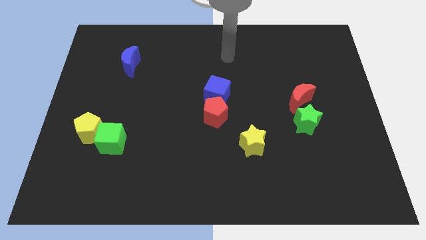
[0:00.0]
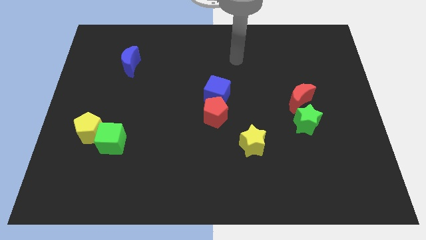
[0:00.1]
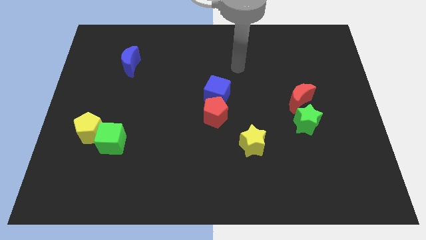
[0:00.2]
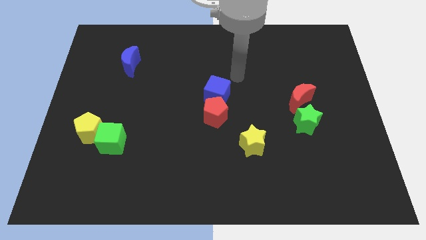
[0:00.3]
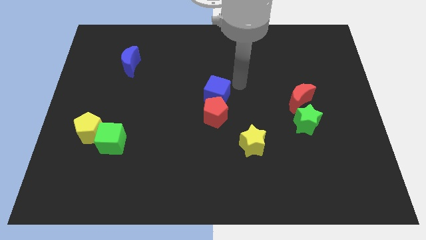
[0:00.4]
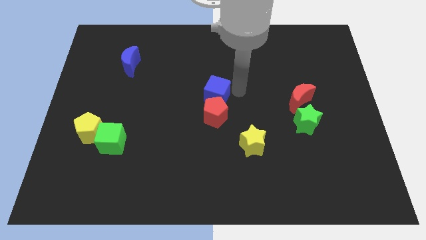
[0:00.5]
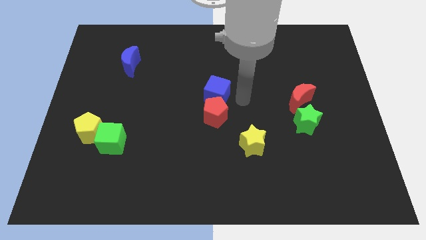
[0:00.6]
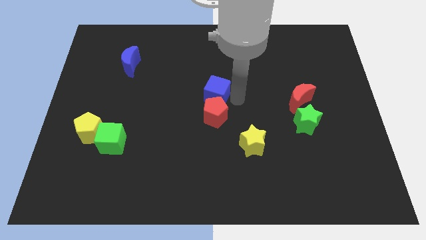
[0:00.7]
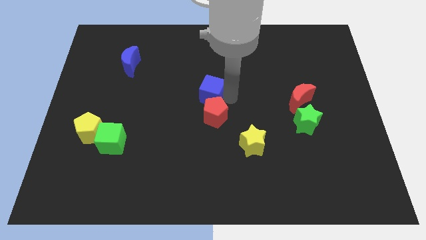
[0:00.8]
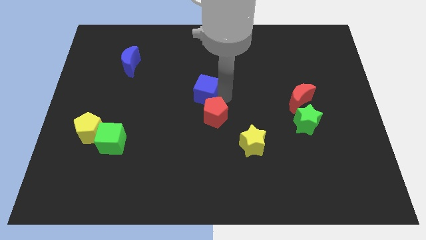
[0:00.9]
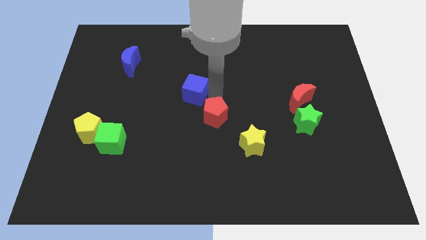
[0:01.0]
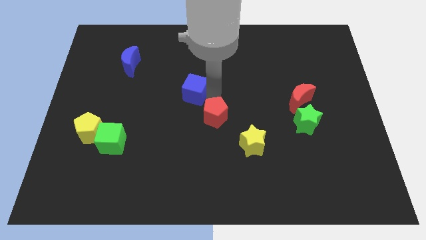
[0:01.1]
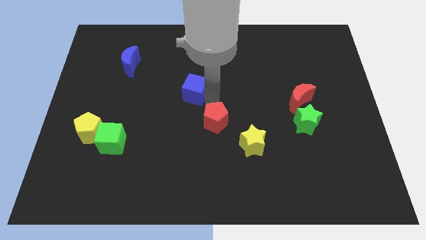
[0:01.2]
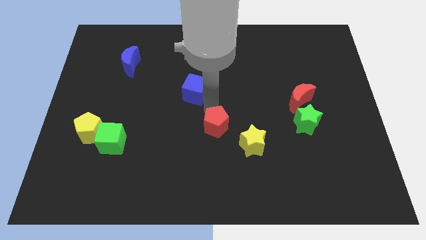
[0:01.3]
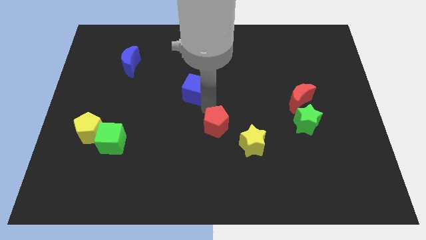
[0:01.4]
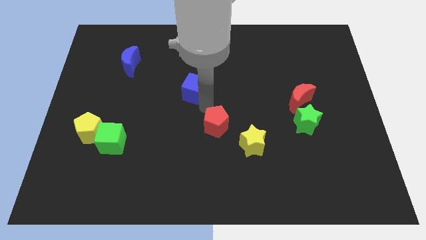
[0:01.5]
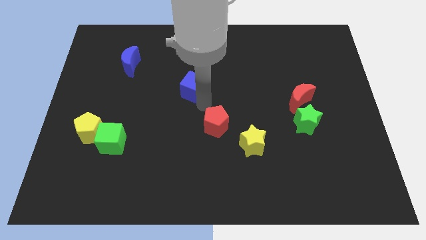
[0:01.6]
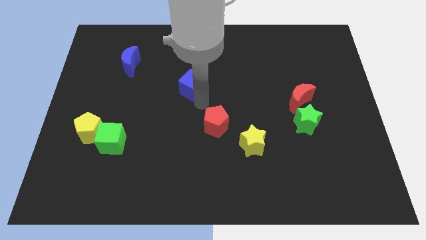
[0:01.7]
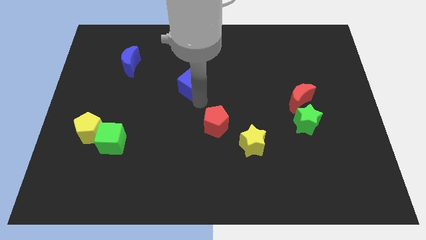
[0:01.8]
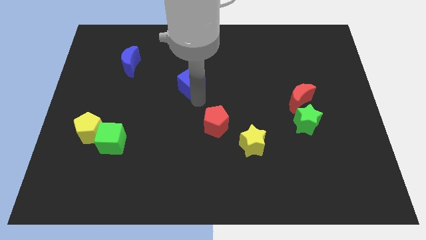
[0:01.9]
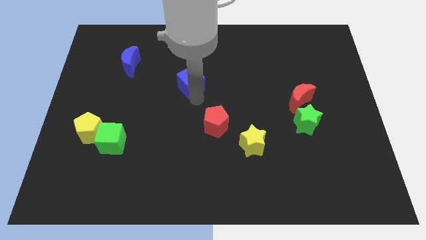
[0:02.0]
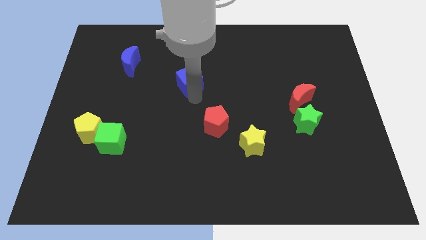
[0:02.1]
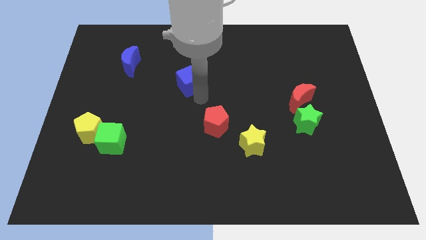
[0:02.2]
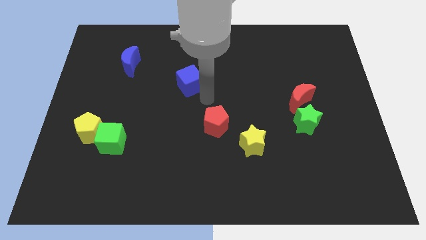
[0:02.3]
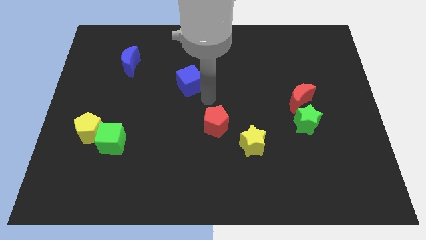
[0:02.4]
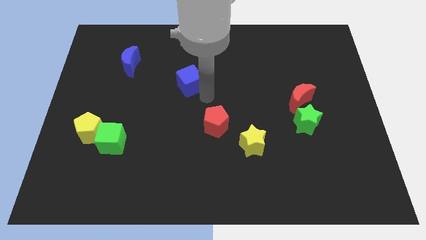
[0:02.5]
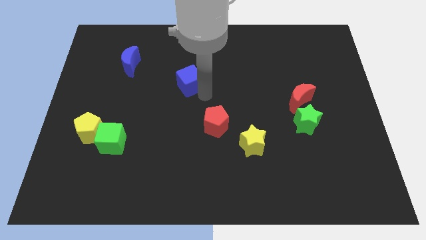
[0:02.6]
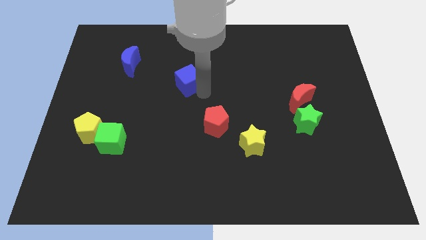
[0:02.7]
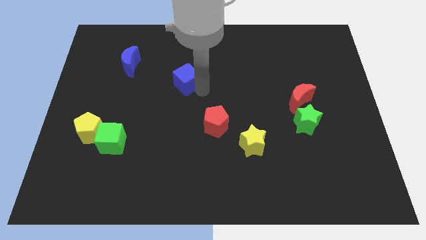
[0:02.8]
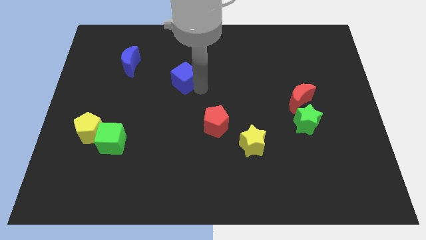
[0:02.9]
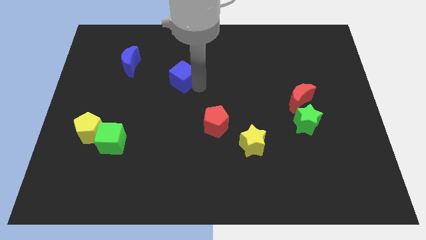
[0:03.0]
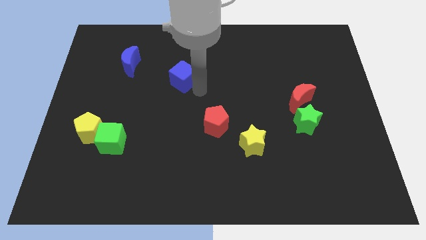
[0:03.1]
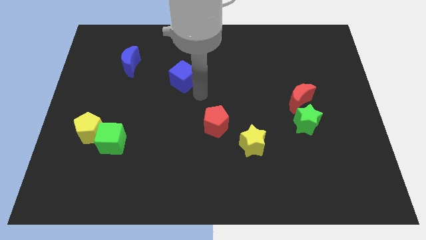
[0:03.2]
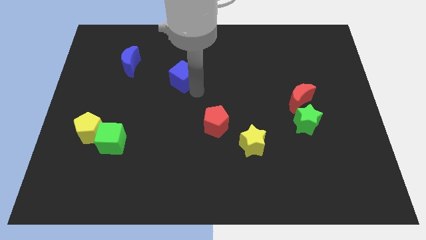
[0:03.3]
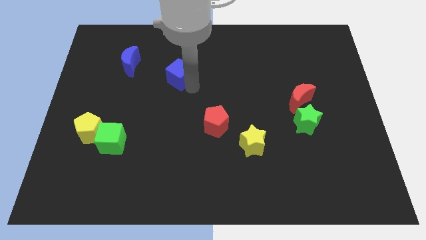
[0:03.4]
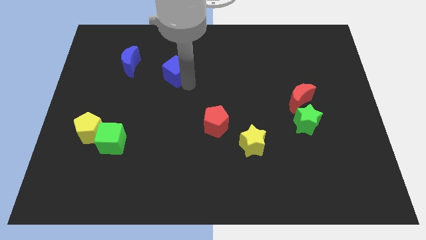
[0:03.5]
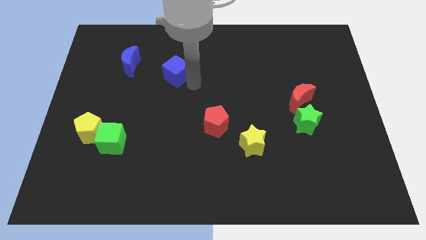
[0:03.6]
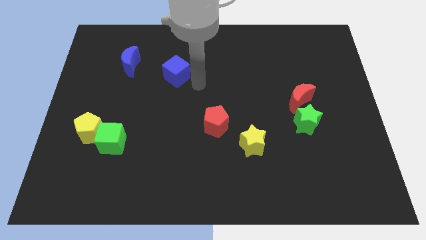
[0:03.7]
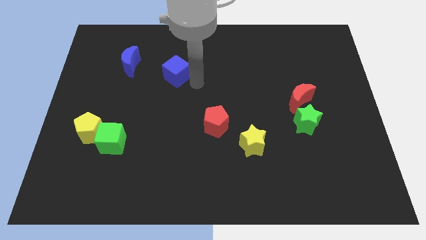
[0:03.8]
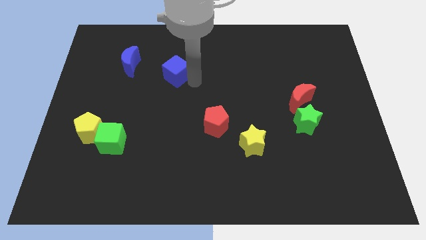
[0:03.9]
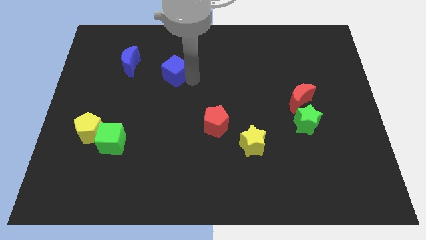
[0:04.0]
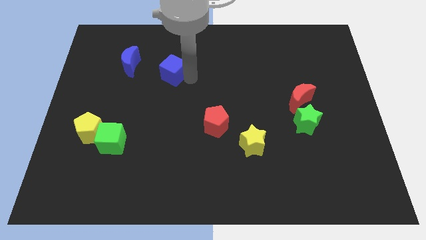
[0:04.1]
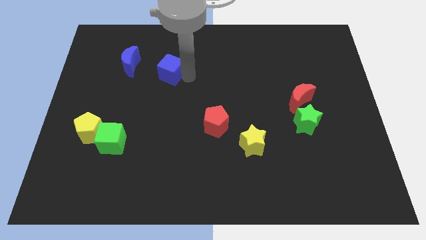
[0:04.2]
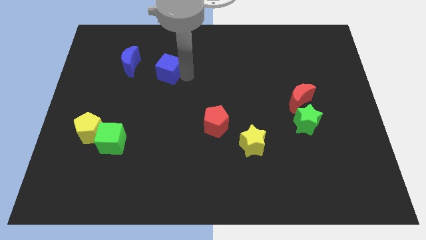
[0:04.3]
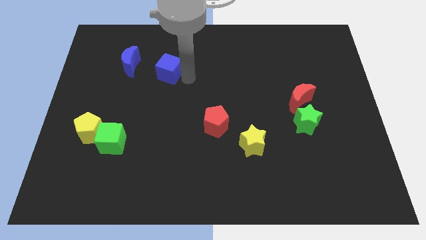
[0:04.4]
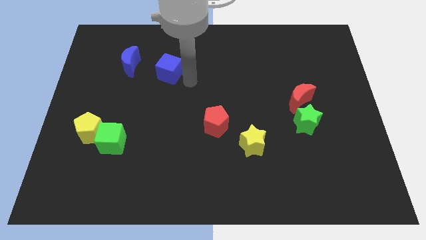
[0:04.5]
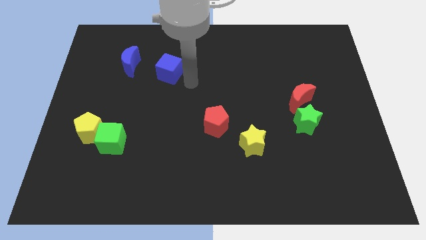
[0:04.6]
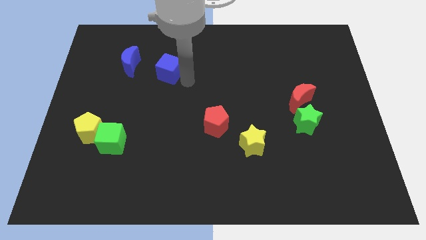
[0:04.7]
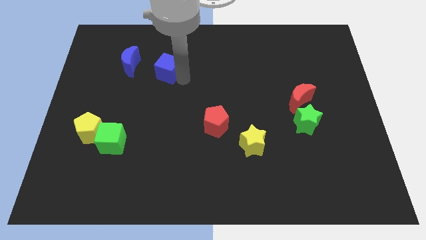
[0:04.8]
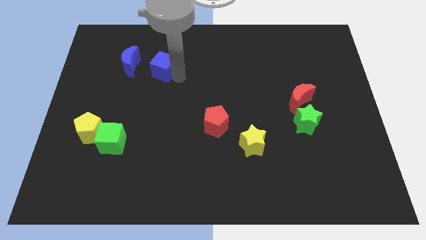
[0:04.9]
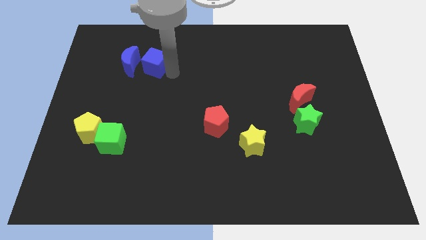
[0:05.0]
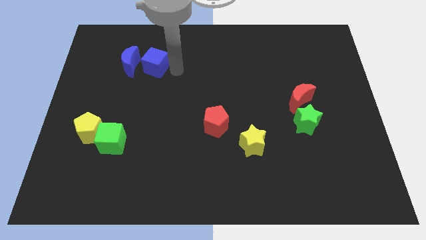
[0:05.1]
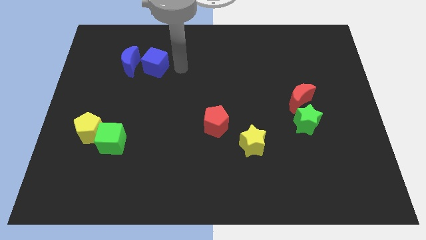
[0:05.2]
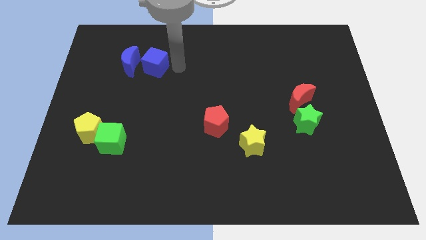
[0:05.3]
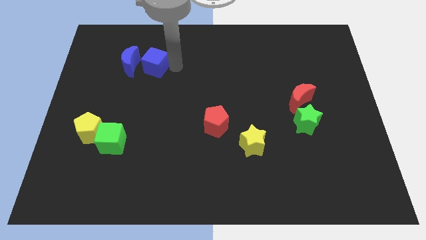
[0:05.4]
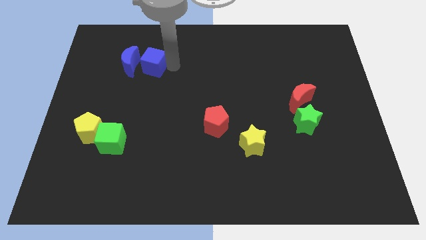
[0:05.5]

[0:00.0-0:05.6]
move the blue cube close to the blue moon

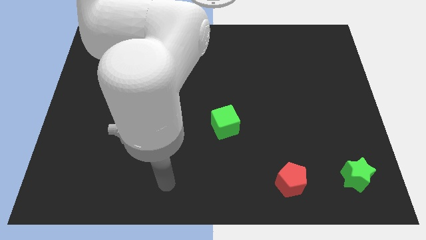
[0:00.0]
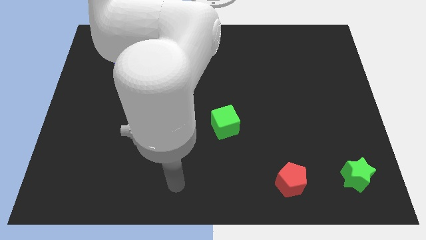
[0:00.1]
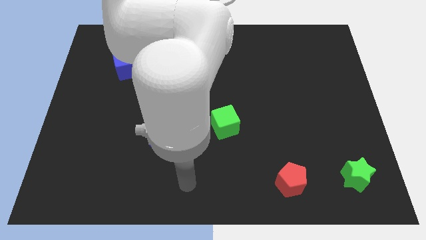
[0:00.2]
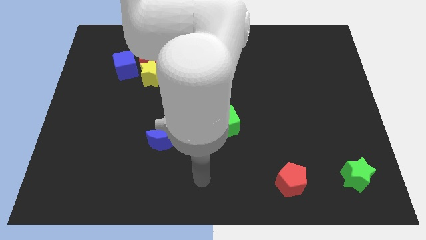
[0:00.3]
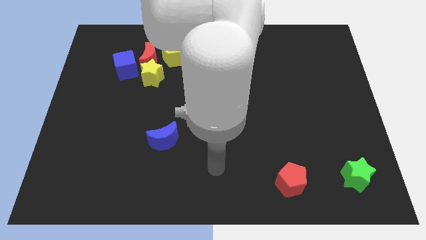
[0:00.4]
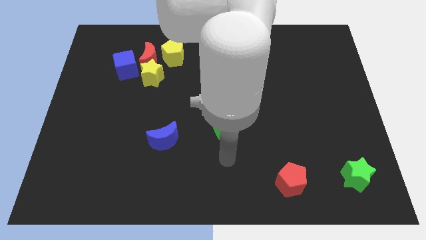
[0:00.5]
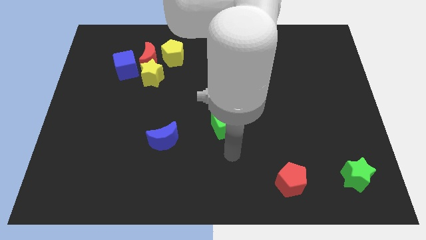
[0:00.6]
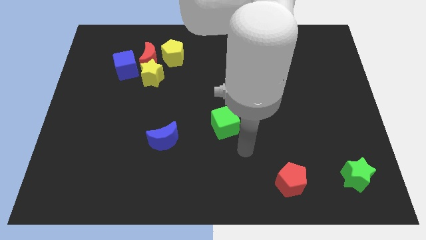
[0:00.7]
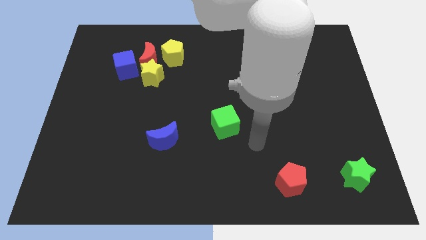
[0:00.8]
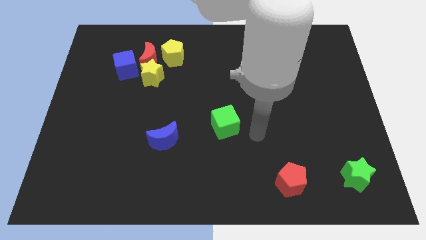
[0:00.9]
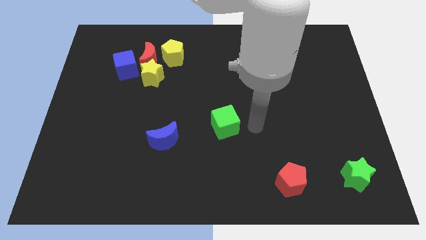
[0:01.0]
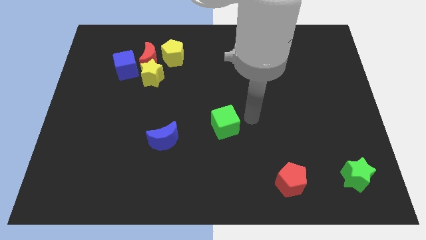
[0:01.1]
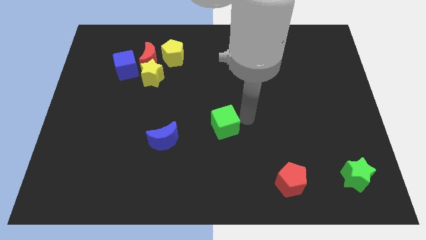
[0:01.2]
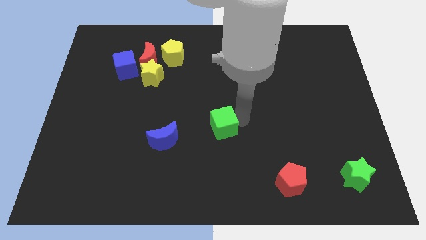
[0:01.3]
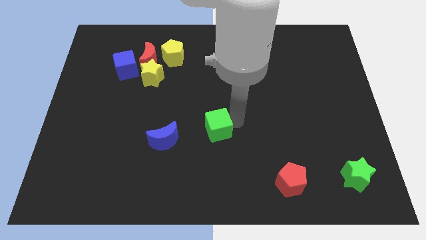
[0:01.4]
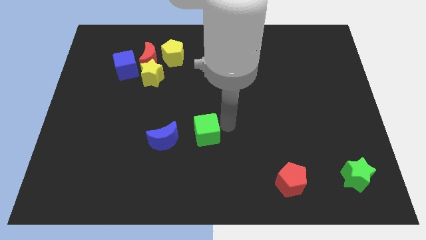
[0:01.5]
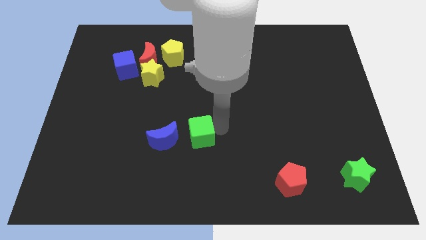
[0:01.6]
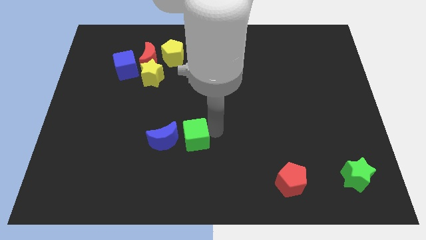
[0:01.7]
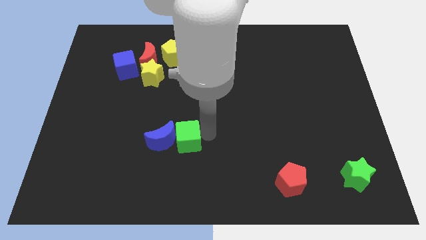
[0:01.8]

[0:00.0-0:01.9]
slide the green cube close to the blue moon
